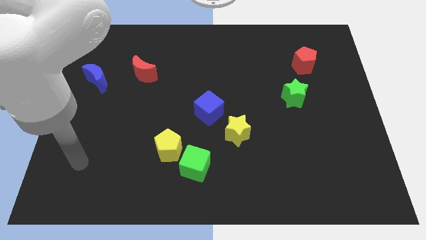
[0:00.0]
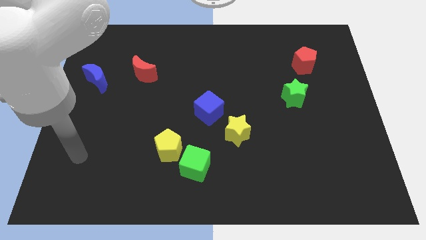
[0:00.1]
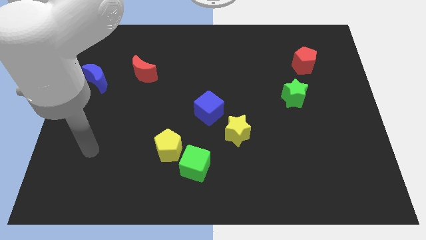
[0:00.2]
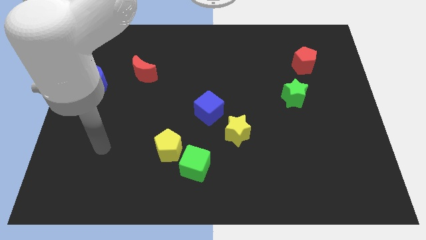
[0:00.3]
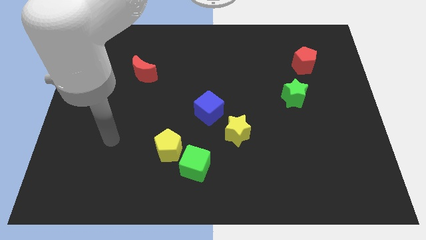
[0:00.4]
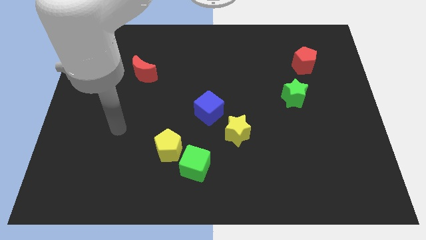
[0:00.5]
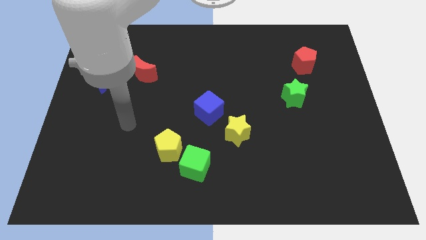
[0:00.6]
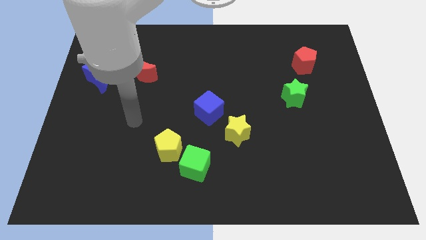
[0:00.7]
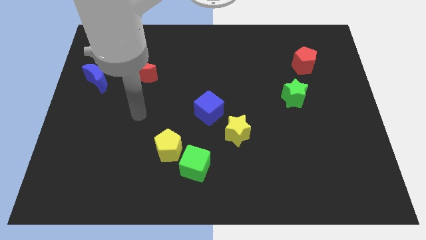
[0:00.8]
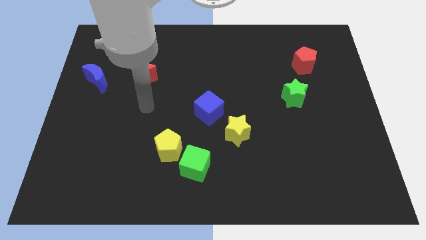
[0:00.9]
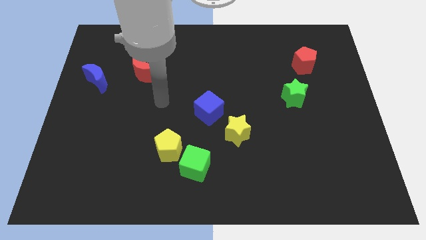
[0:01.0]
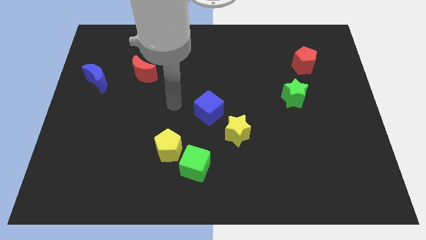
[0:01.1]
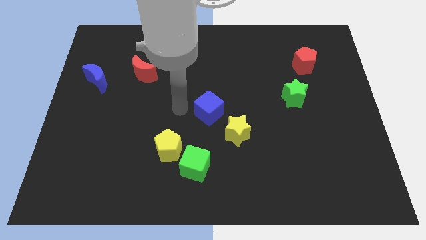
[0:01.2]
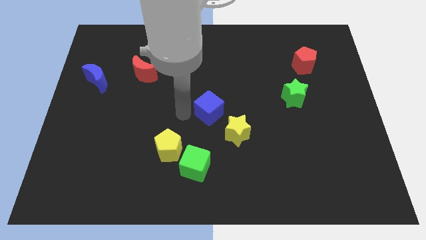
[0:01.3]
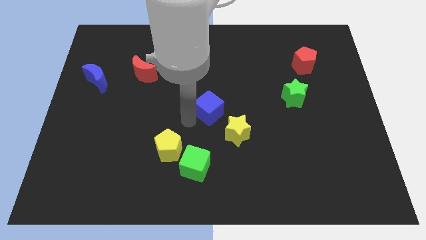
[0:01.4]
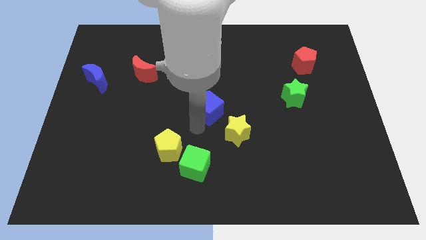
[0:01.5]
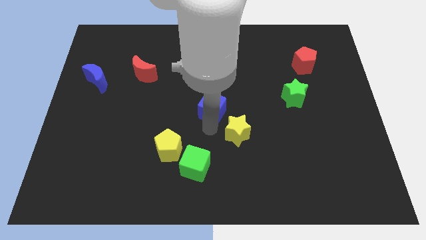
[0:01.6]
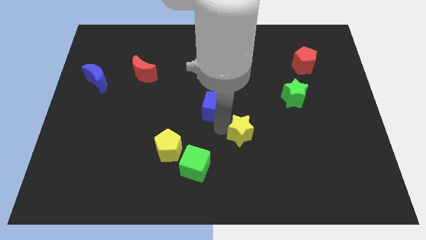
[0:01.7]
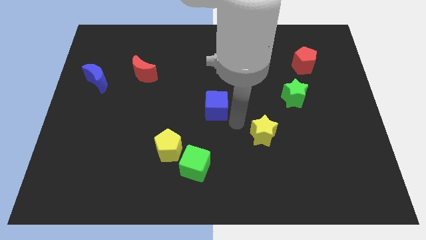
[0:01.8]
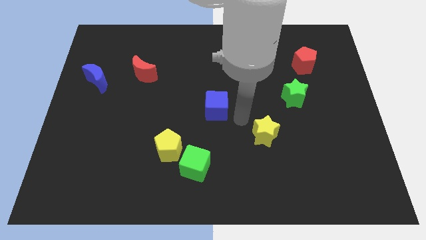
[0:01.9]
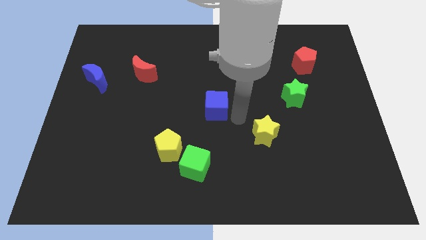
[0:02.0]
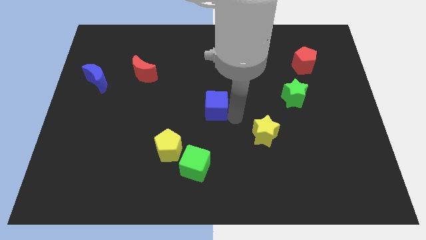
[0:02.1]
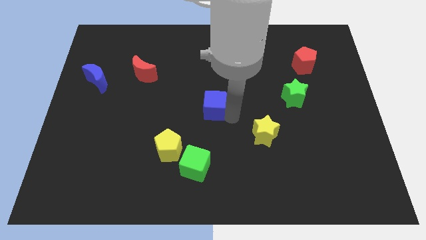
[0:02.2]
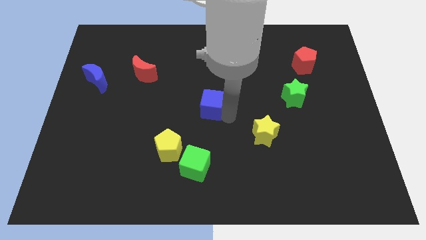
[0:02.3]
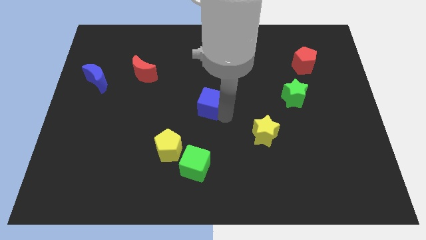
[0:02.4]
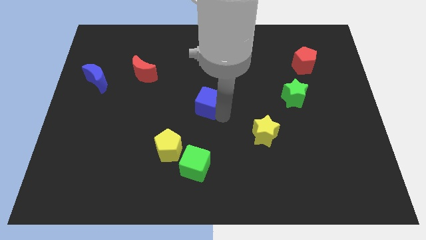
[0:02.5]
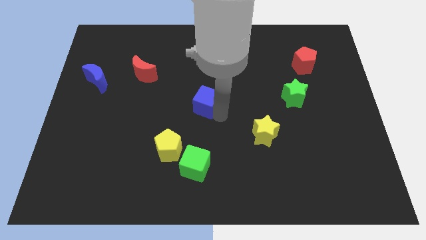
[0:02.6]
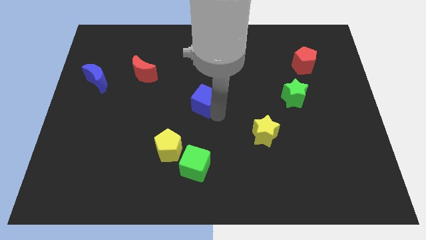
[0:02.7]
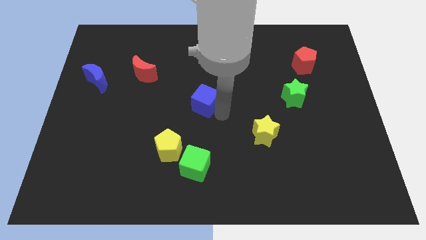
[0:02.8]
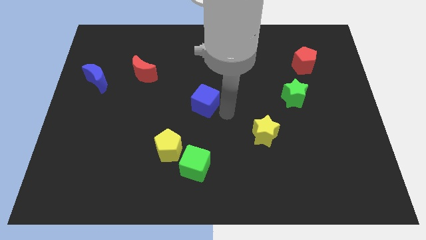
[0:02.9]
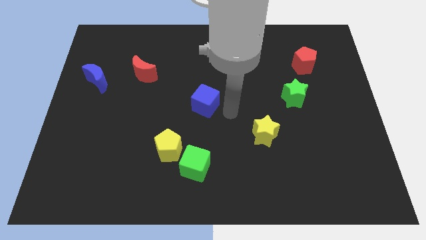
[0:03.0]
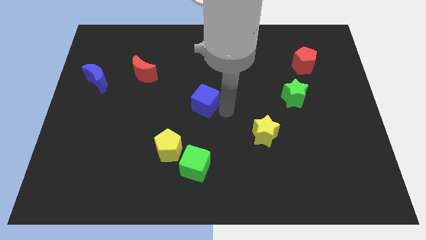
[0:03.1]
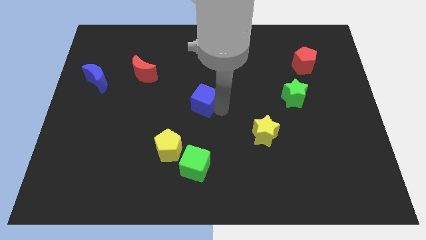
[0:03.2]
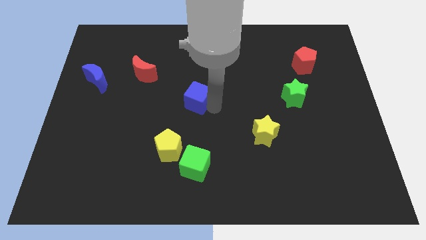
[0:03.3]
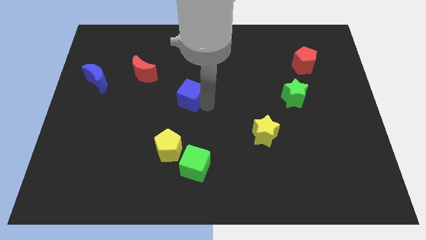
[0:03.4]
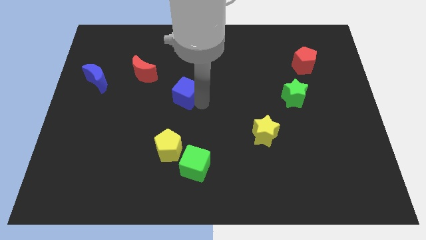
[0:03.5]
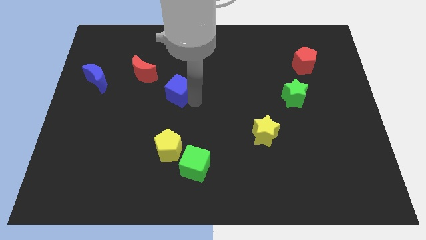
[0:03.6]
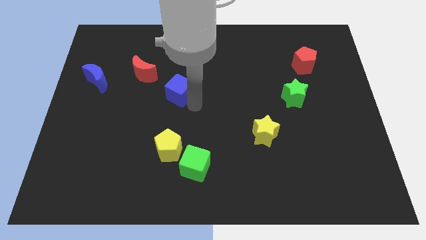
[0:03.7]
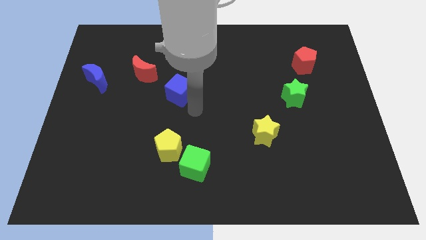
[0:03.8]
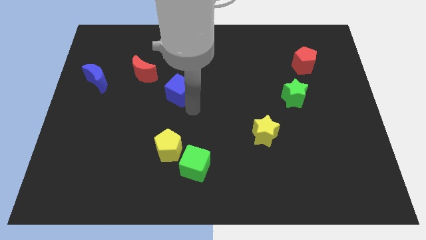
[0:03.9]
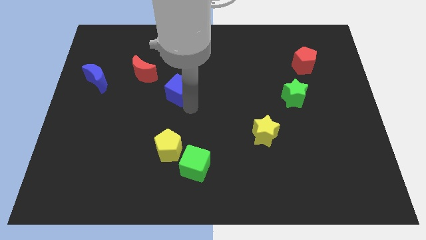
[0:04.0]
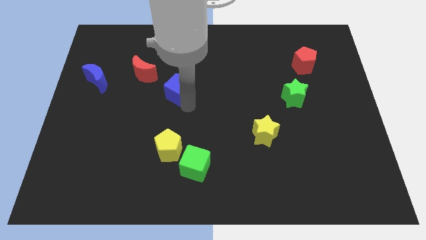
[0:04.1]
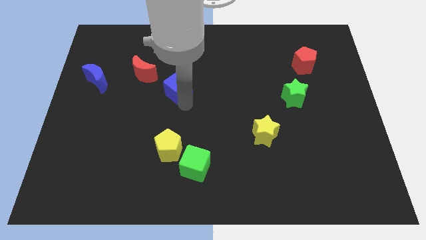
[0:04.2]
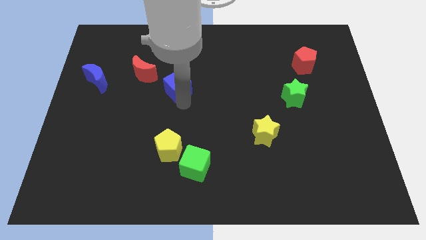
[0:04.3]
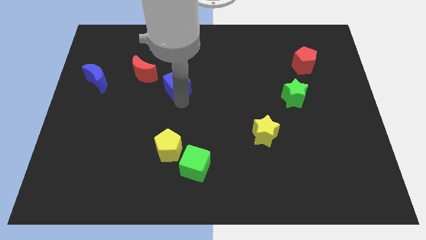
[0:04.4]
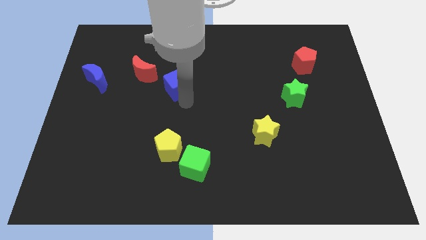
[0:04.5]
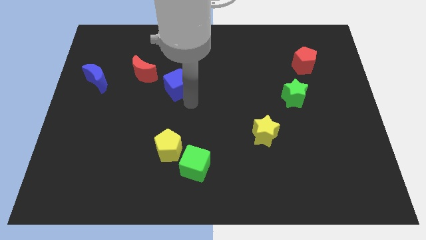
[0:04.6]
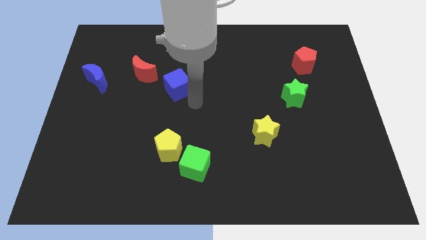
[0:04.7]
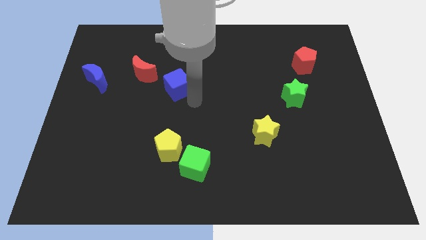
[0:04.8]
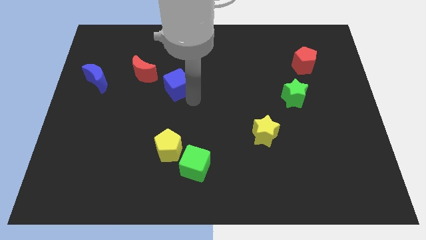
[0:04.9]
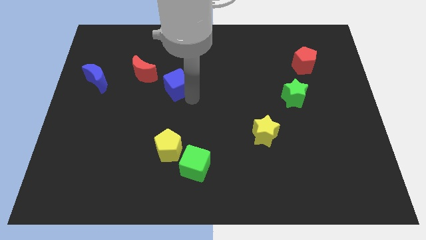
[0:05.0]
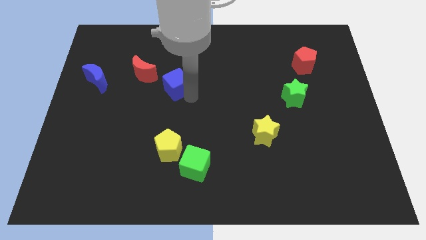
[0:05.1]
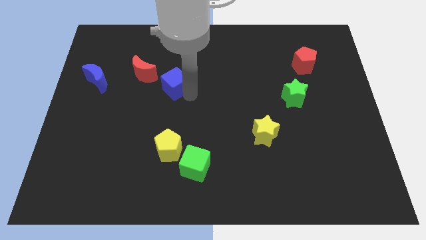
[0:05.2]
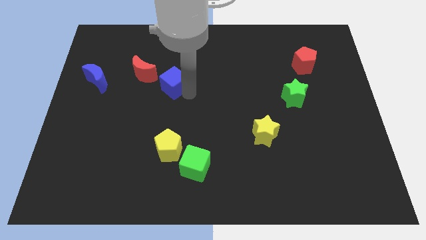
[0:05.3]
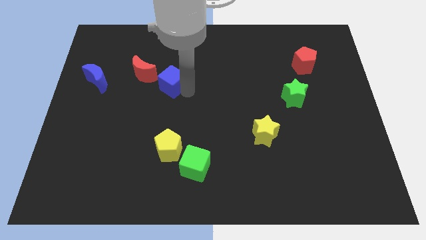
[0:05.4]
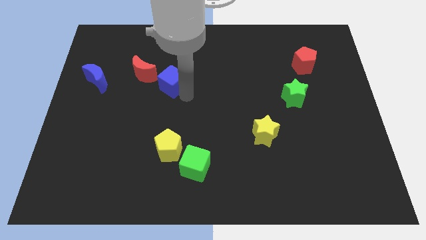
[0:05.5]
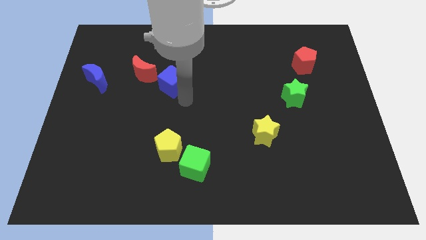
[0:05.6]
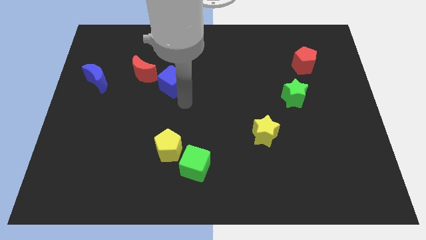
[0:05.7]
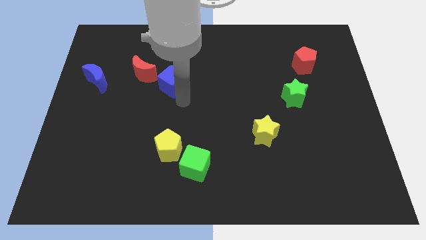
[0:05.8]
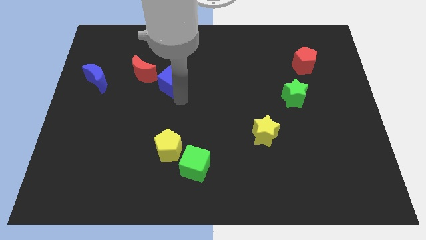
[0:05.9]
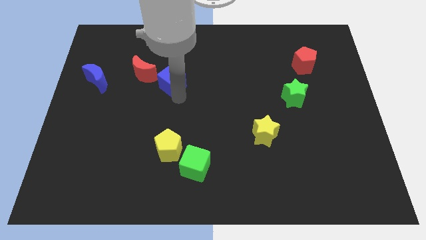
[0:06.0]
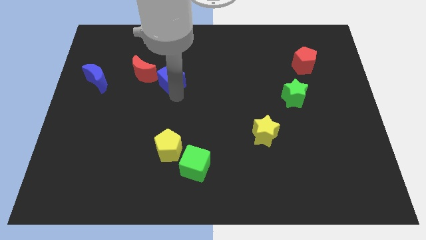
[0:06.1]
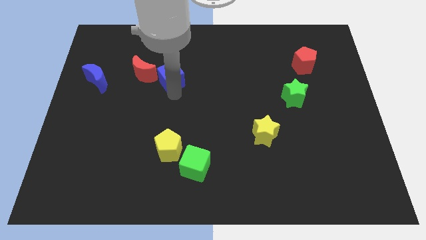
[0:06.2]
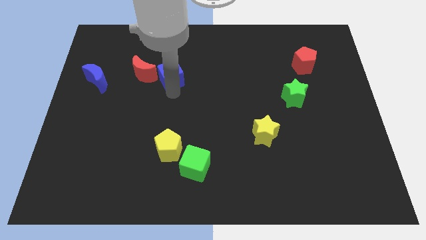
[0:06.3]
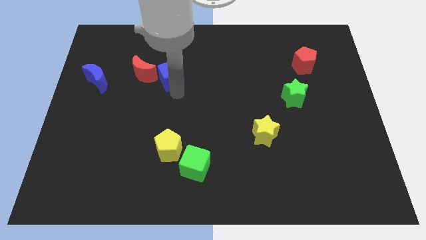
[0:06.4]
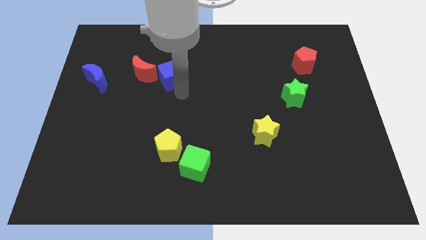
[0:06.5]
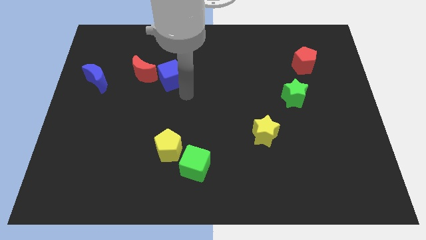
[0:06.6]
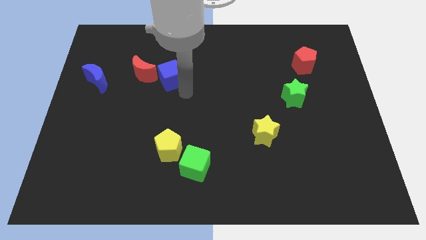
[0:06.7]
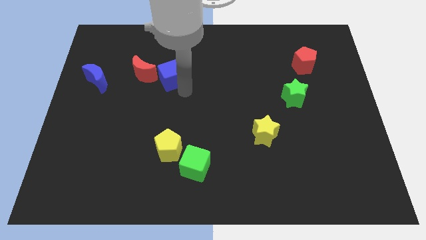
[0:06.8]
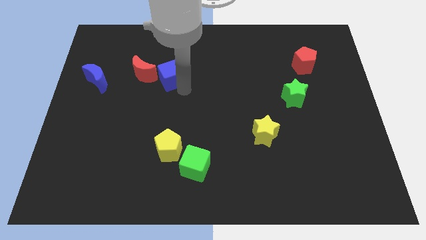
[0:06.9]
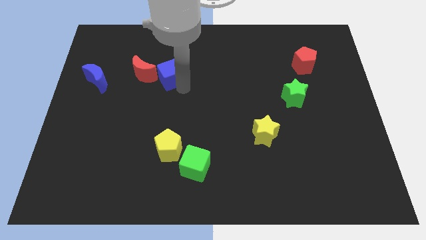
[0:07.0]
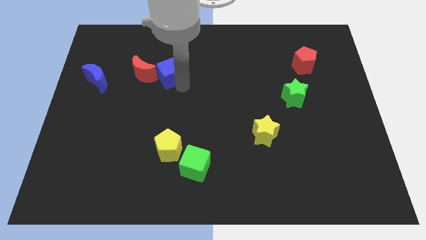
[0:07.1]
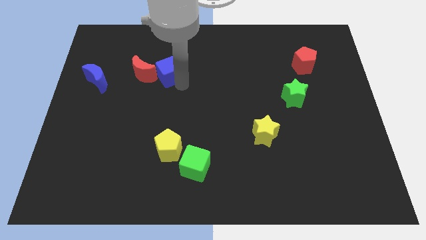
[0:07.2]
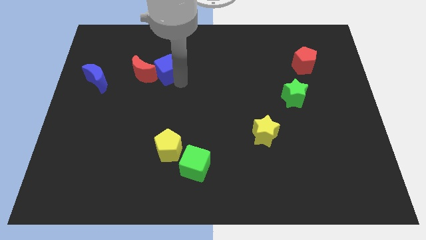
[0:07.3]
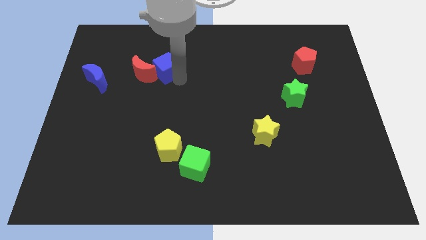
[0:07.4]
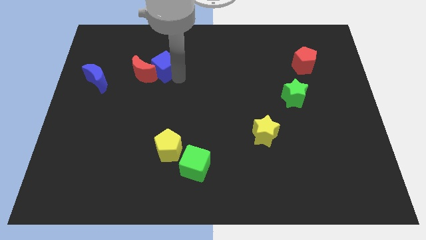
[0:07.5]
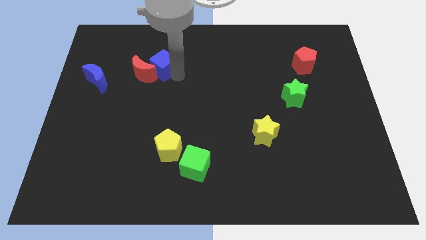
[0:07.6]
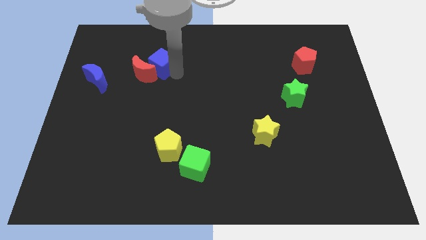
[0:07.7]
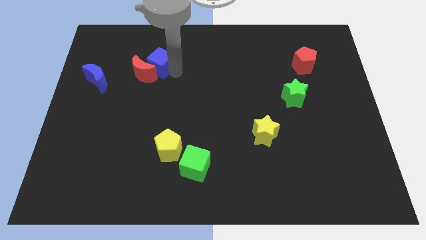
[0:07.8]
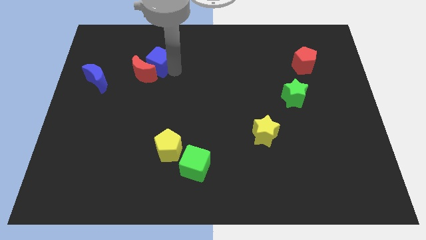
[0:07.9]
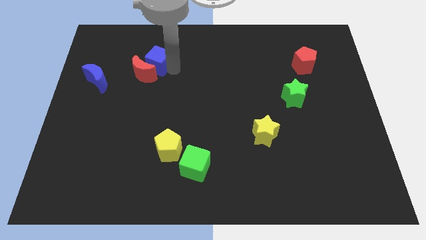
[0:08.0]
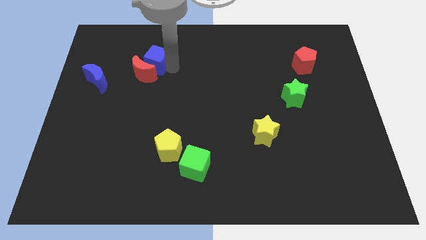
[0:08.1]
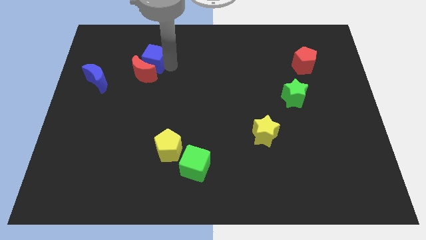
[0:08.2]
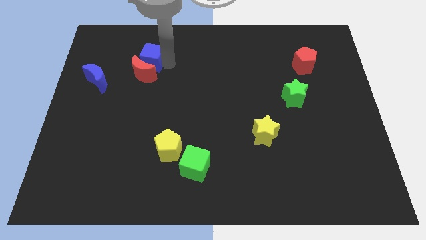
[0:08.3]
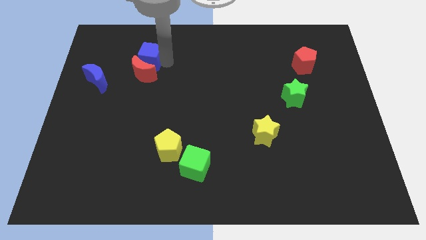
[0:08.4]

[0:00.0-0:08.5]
put the blue cube to the top left side of the red moon
